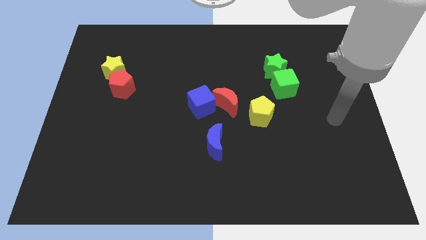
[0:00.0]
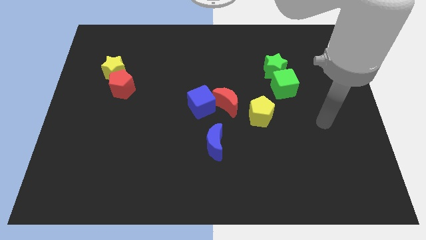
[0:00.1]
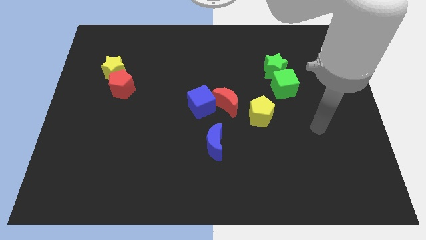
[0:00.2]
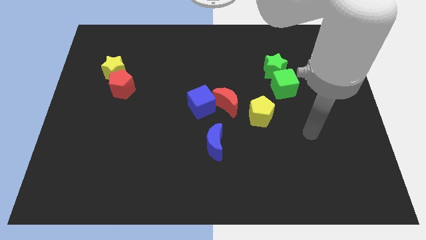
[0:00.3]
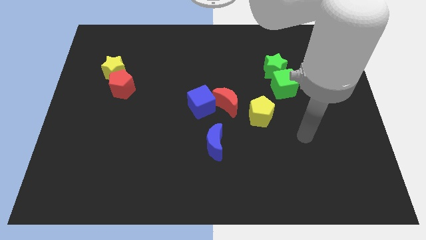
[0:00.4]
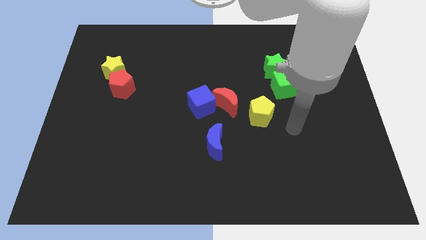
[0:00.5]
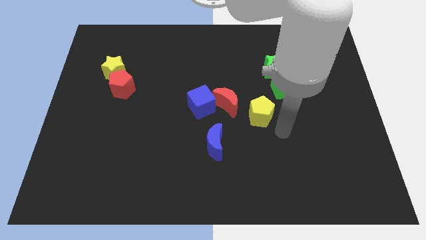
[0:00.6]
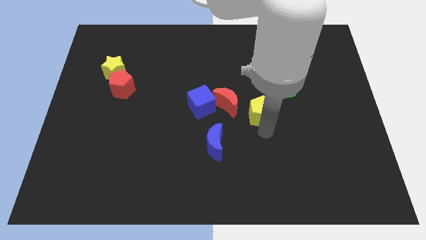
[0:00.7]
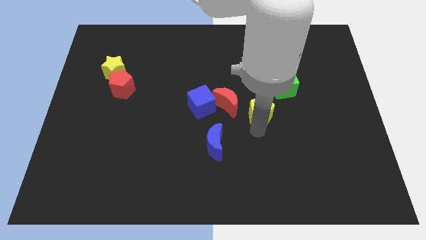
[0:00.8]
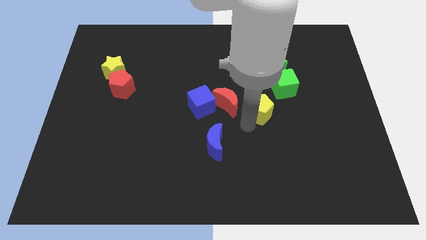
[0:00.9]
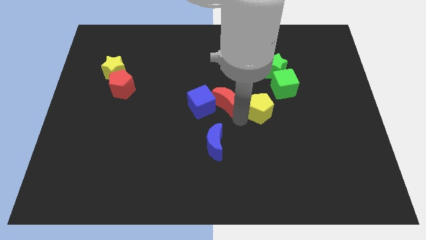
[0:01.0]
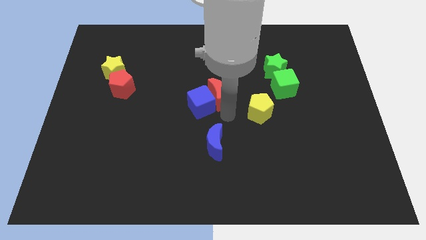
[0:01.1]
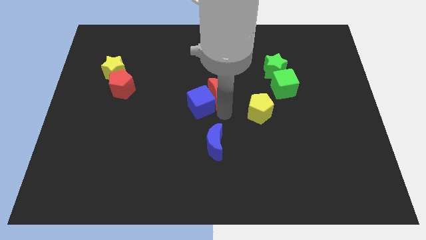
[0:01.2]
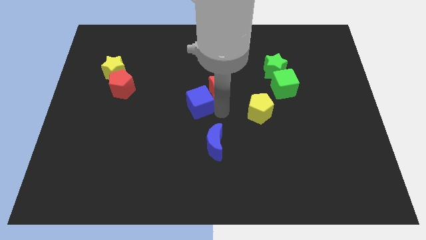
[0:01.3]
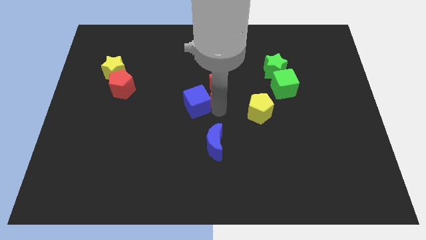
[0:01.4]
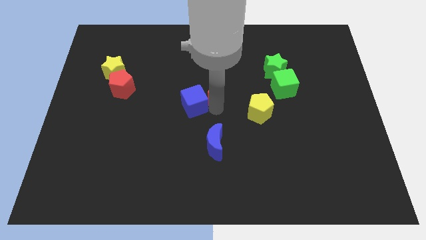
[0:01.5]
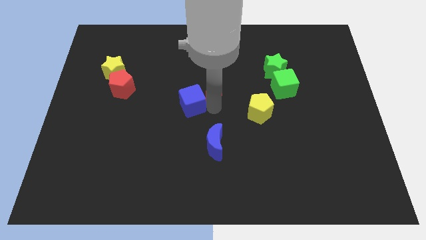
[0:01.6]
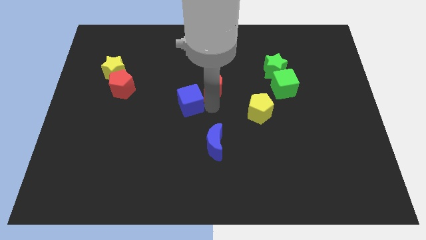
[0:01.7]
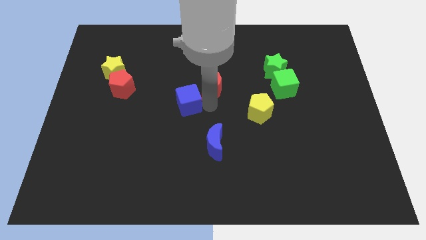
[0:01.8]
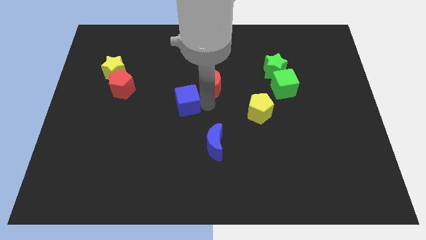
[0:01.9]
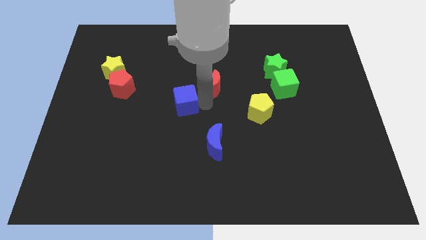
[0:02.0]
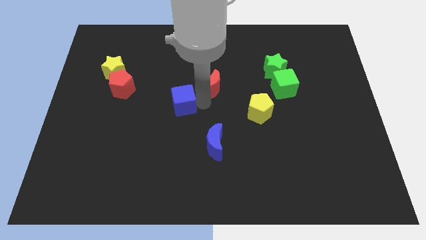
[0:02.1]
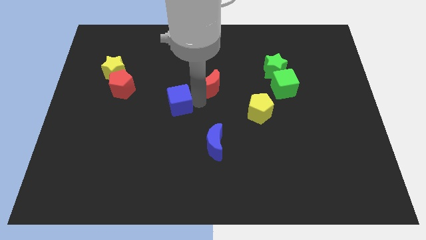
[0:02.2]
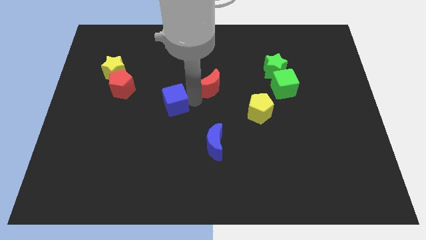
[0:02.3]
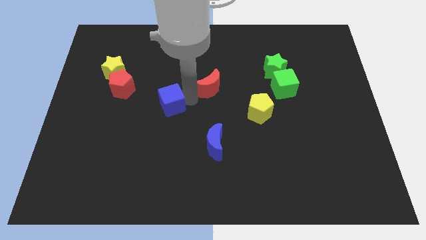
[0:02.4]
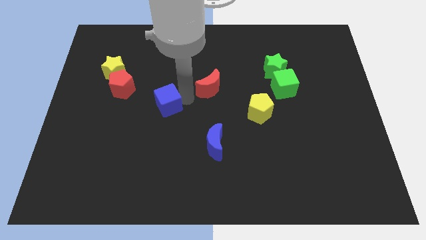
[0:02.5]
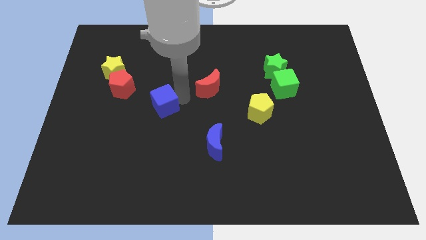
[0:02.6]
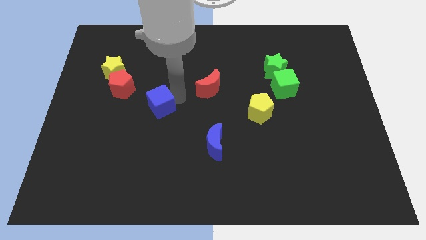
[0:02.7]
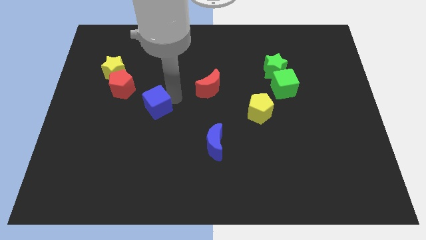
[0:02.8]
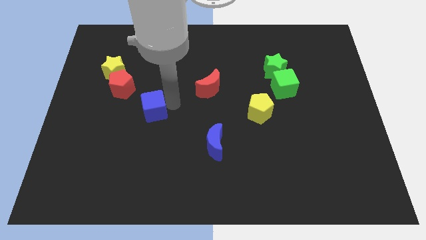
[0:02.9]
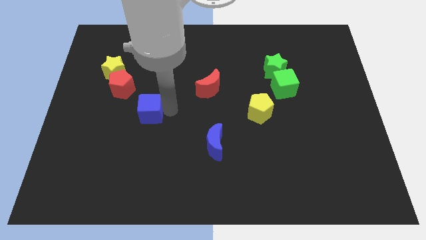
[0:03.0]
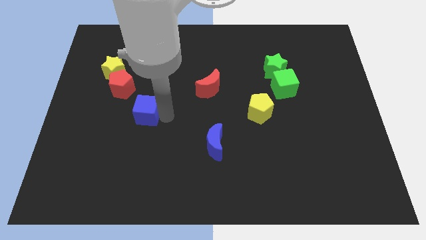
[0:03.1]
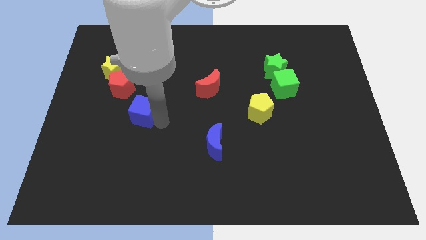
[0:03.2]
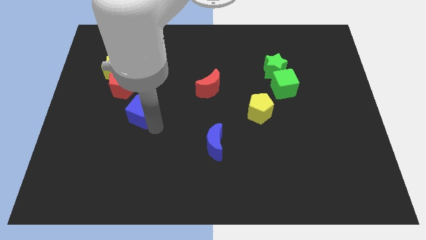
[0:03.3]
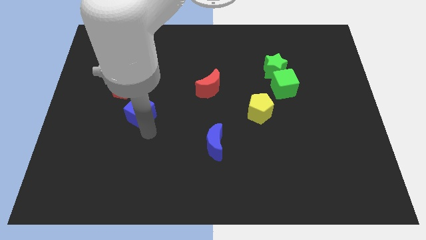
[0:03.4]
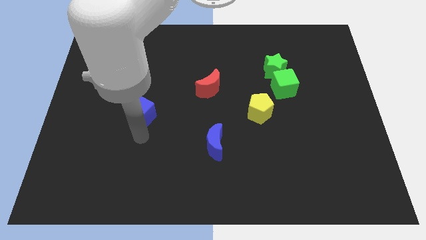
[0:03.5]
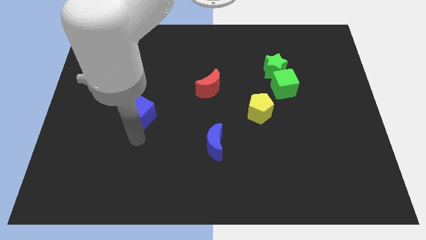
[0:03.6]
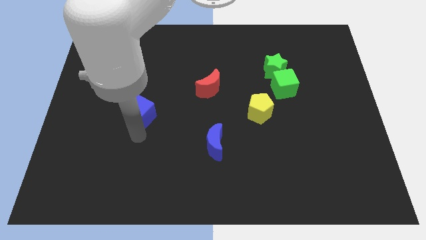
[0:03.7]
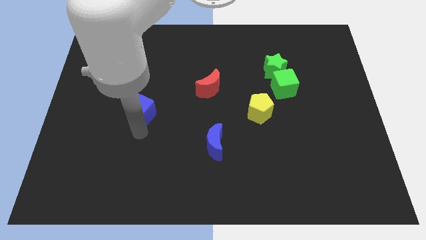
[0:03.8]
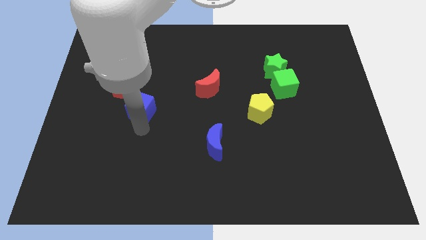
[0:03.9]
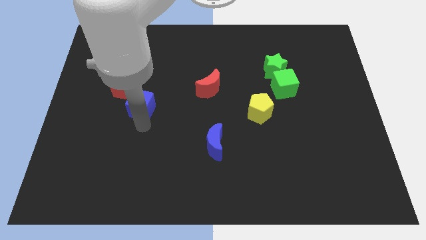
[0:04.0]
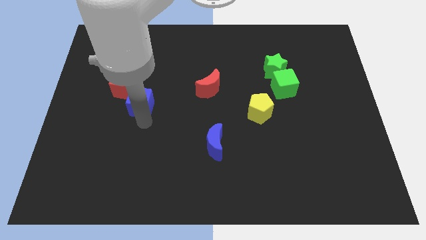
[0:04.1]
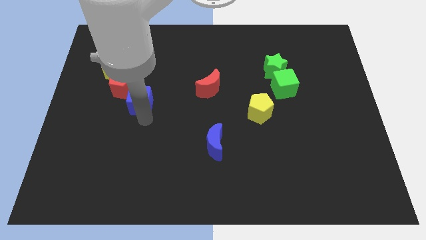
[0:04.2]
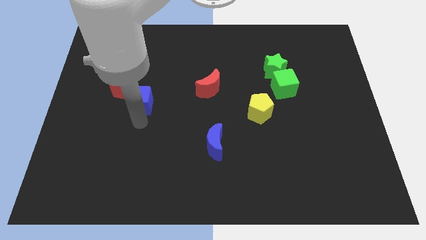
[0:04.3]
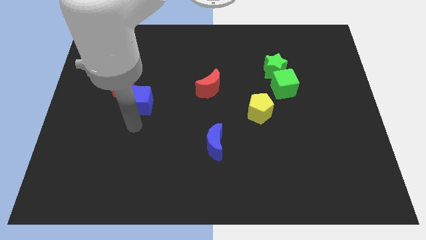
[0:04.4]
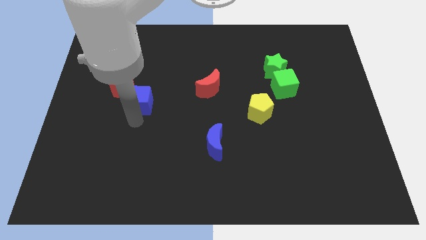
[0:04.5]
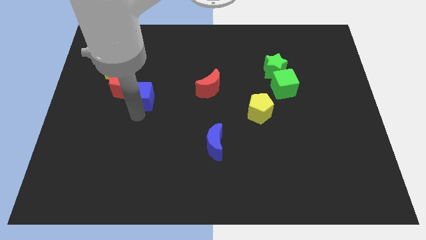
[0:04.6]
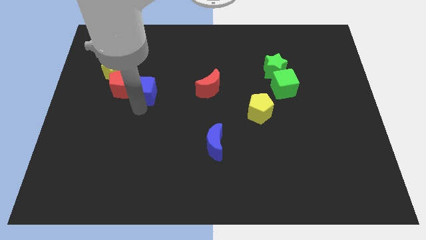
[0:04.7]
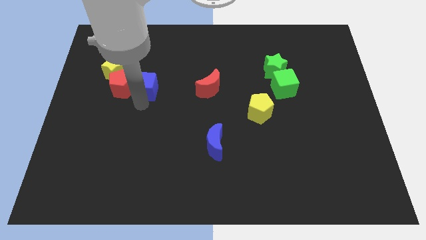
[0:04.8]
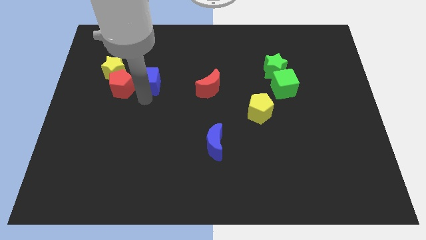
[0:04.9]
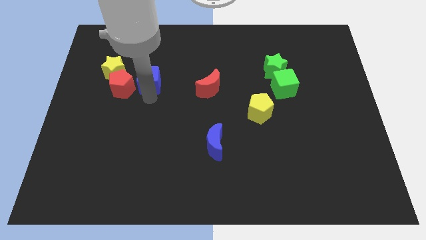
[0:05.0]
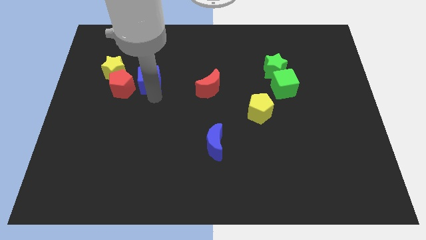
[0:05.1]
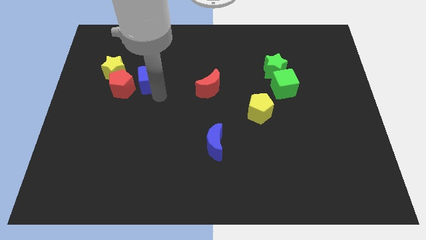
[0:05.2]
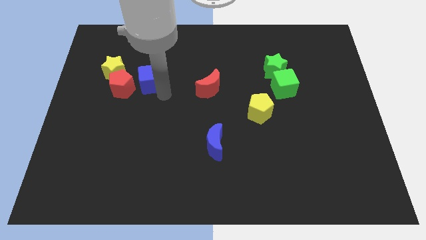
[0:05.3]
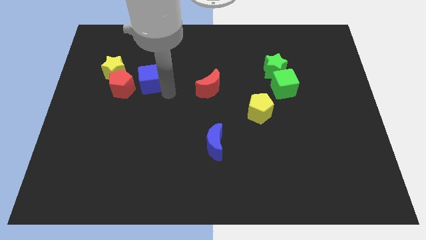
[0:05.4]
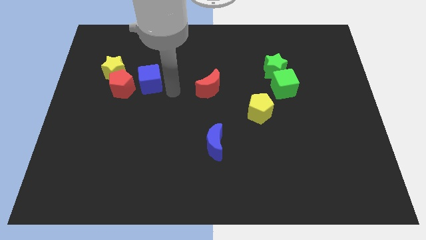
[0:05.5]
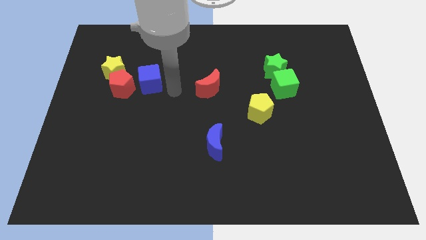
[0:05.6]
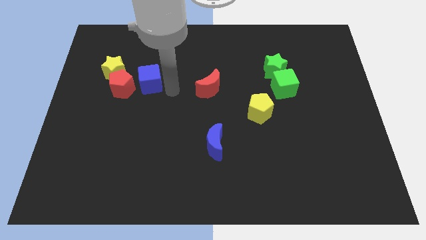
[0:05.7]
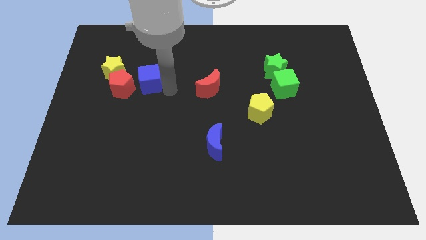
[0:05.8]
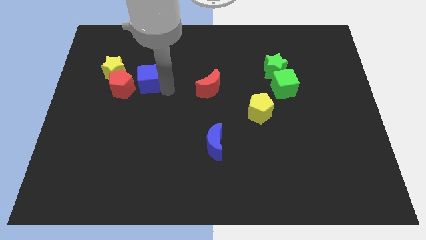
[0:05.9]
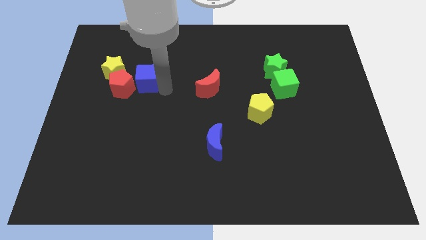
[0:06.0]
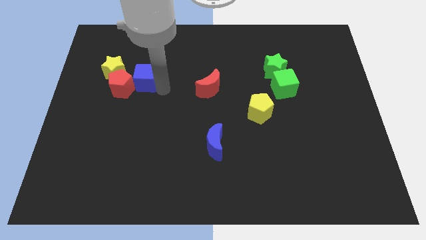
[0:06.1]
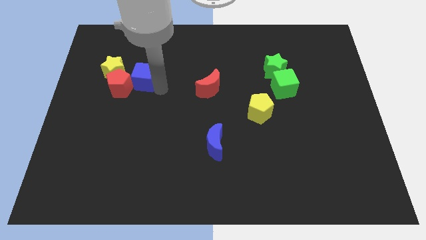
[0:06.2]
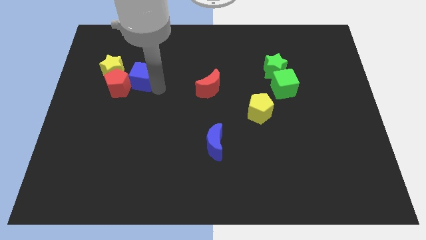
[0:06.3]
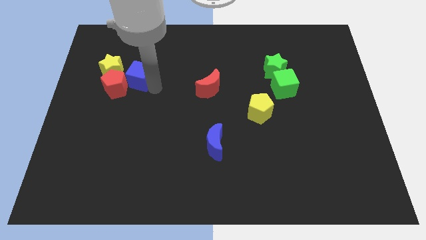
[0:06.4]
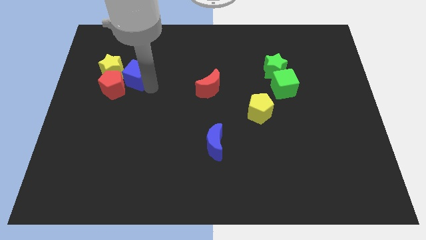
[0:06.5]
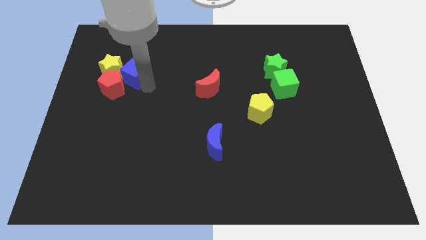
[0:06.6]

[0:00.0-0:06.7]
slide the blue cube towards the yellow star

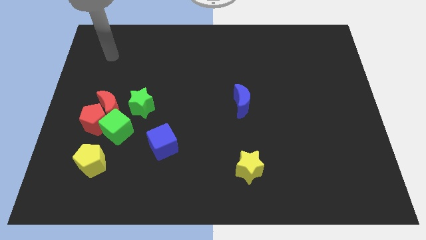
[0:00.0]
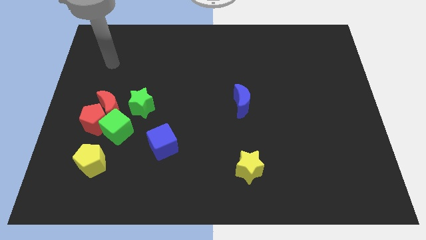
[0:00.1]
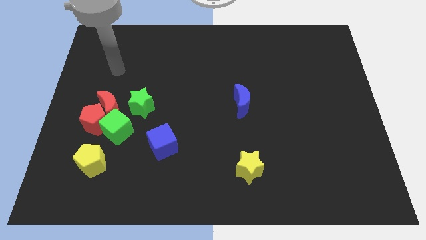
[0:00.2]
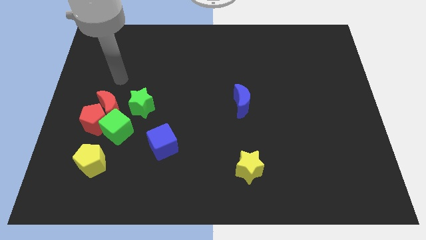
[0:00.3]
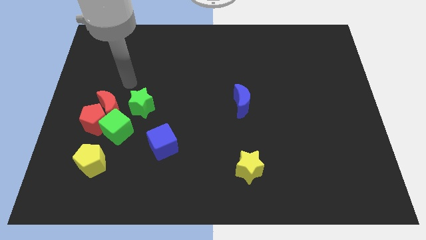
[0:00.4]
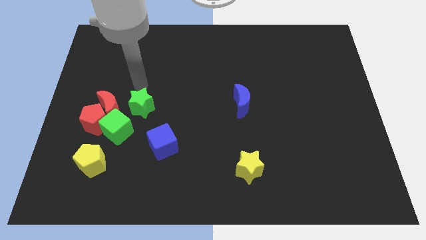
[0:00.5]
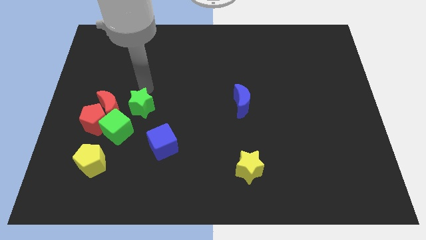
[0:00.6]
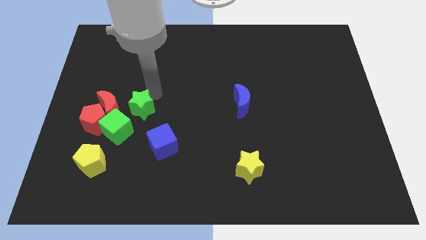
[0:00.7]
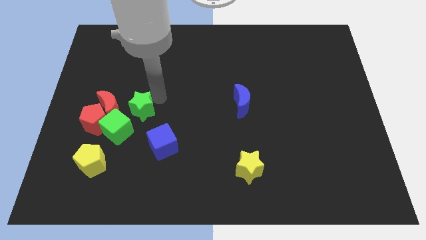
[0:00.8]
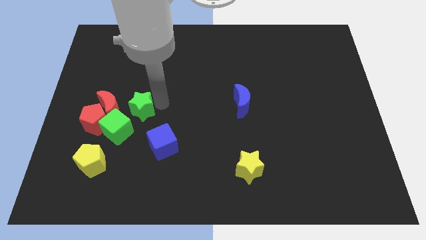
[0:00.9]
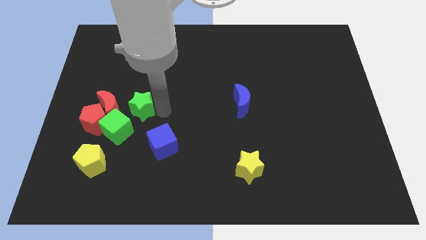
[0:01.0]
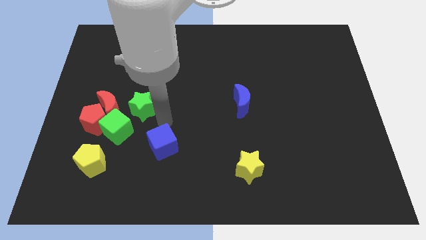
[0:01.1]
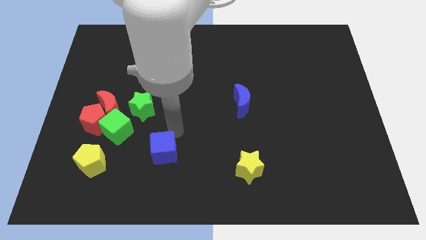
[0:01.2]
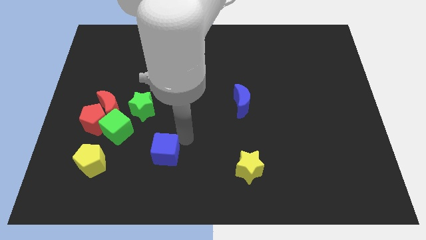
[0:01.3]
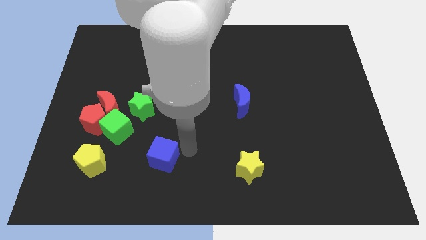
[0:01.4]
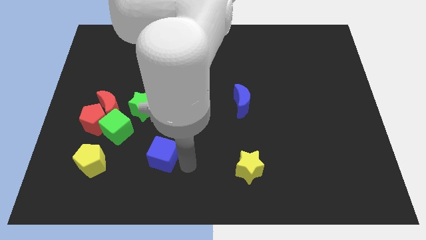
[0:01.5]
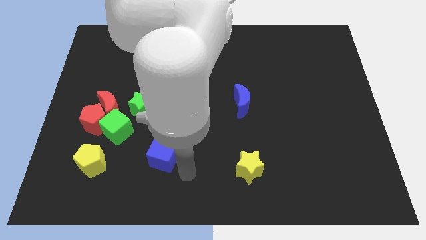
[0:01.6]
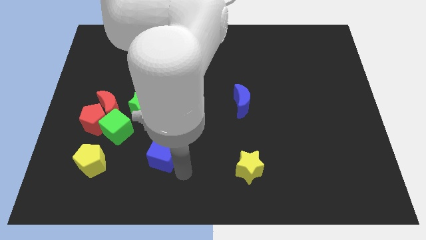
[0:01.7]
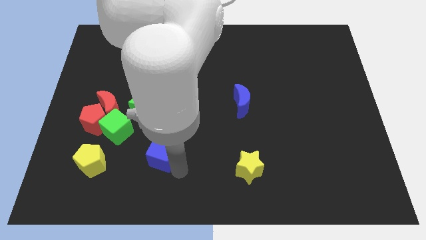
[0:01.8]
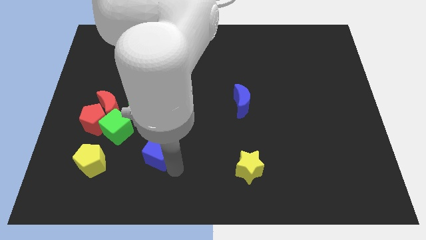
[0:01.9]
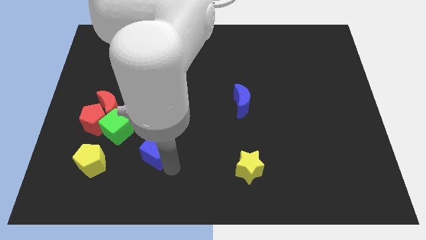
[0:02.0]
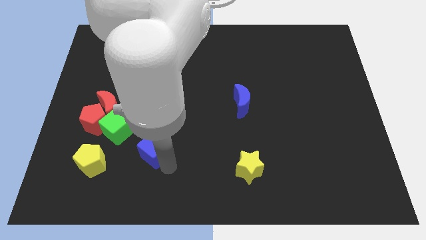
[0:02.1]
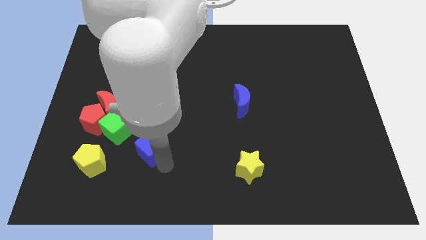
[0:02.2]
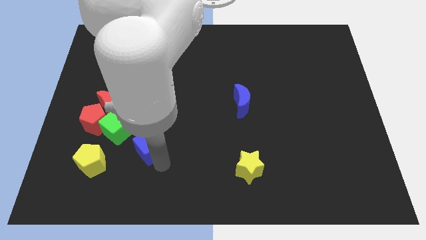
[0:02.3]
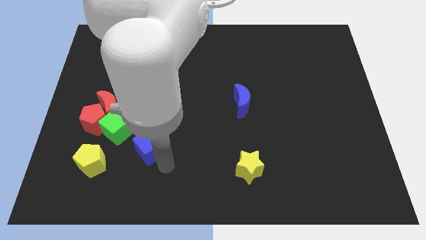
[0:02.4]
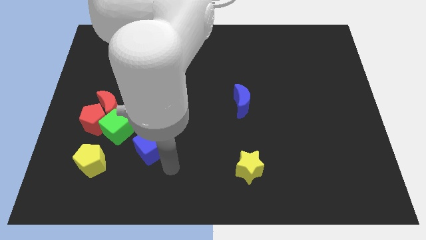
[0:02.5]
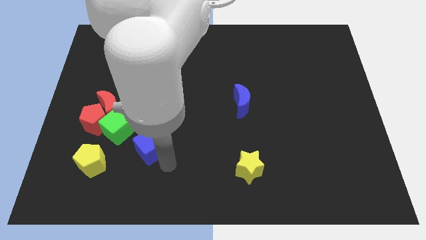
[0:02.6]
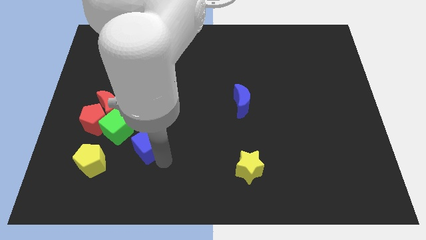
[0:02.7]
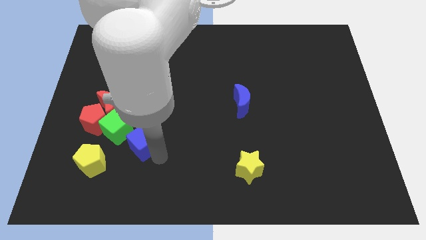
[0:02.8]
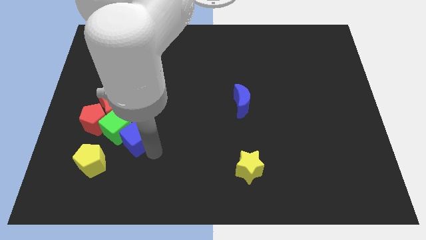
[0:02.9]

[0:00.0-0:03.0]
slide the blue cube next to the green cube
